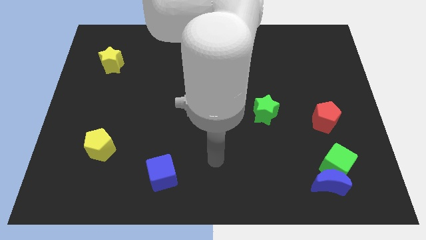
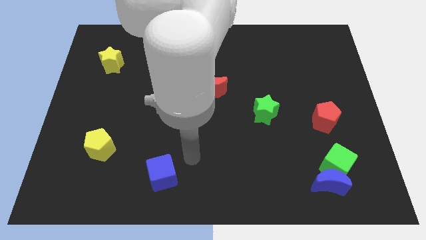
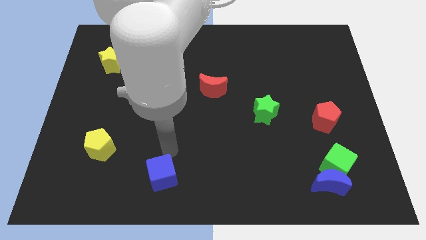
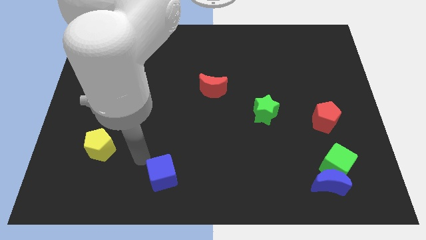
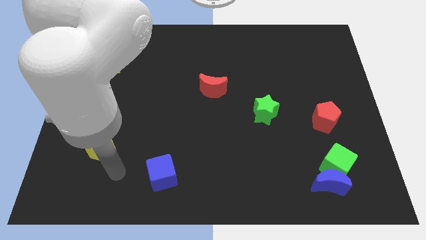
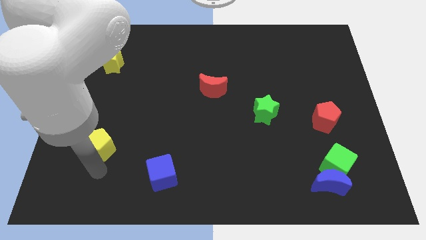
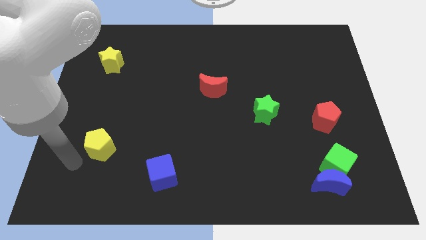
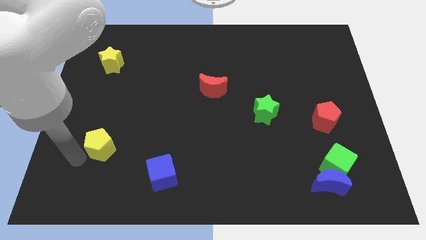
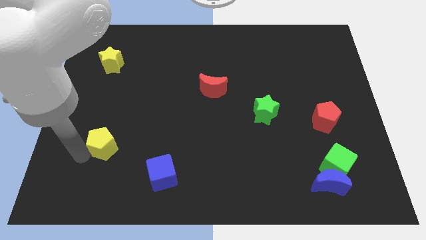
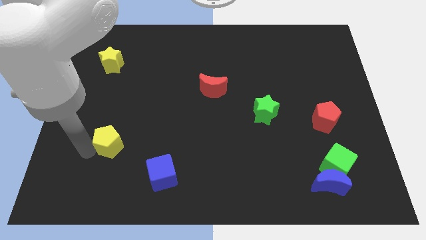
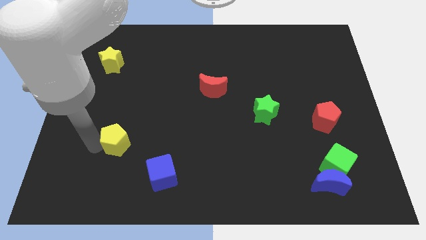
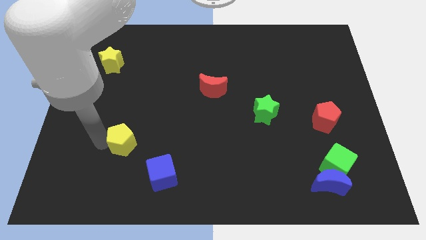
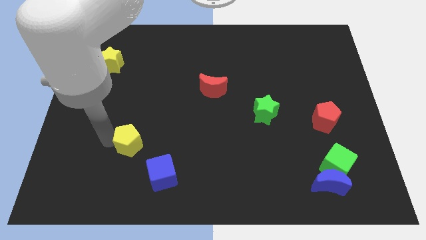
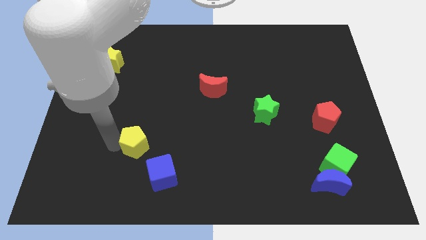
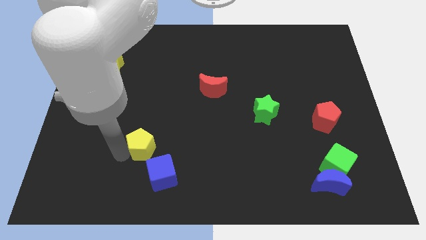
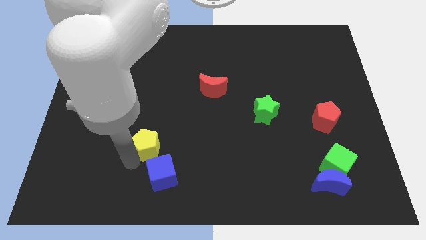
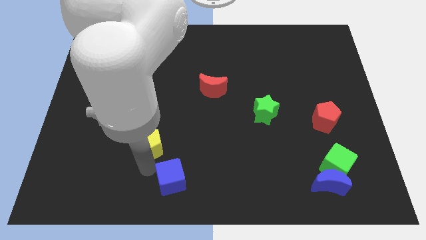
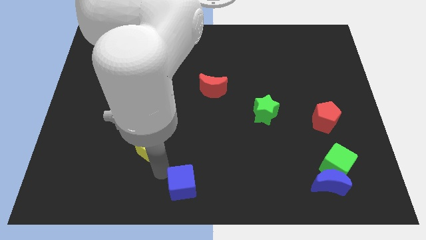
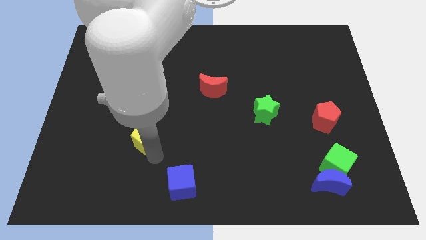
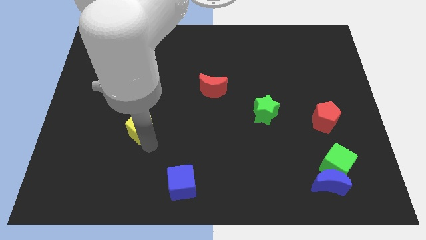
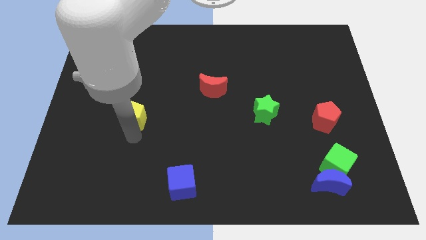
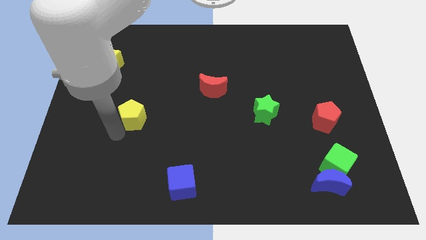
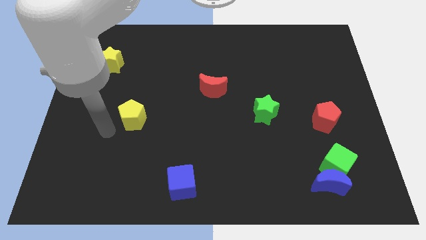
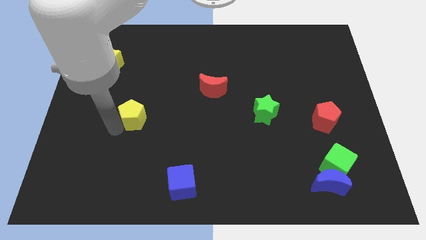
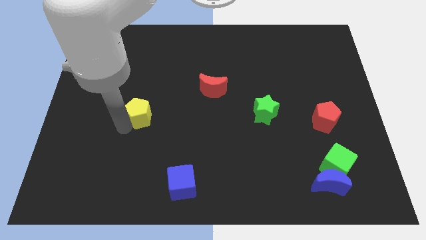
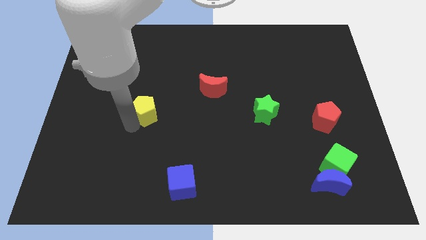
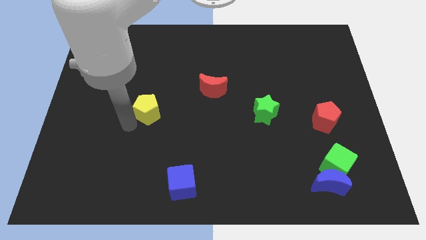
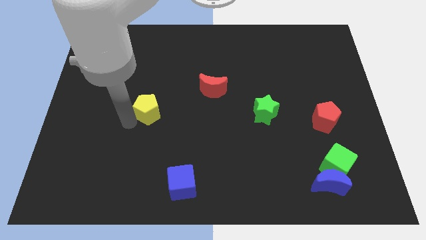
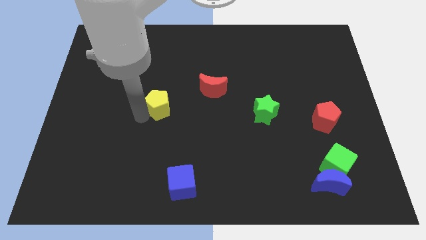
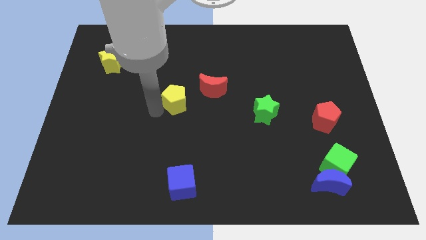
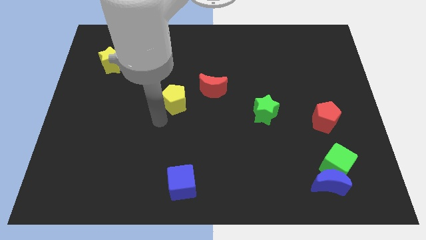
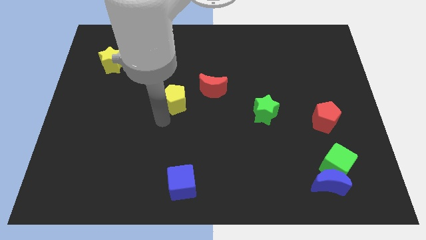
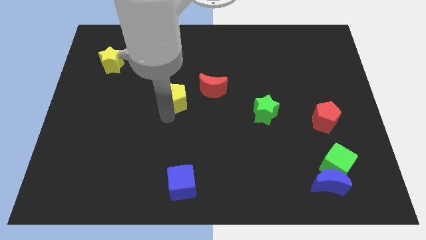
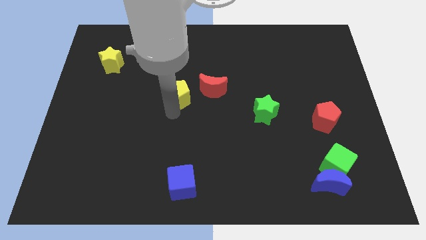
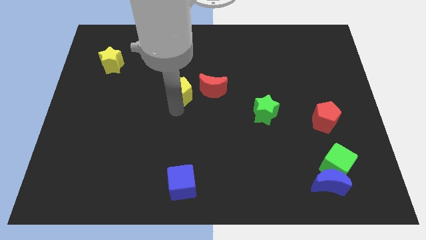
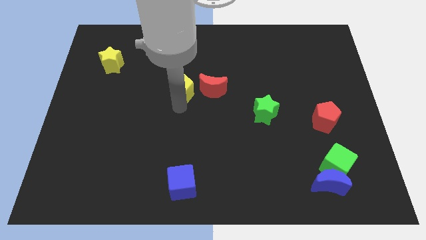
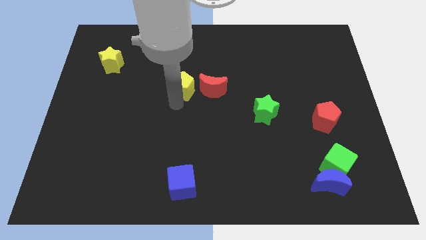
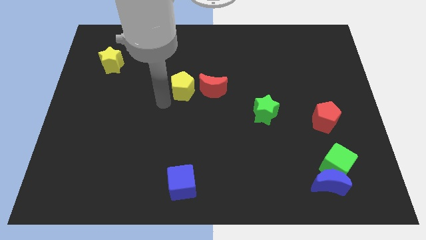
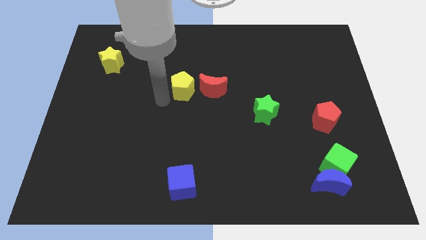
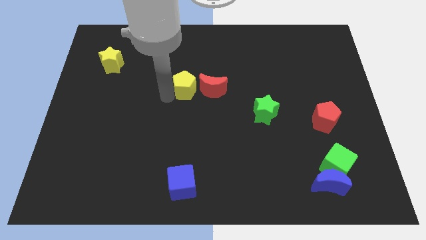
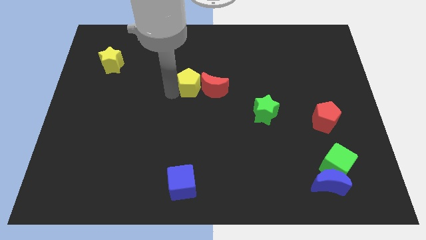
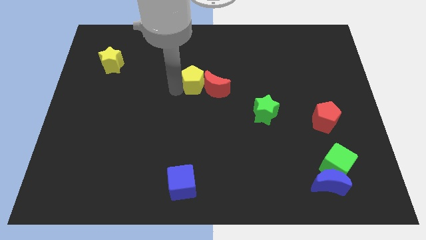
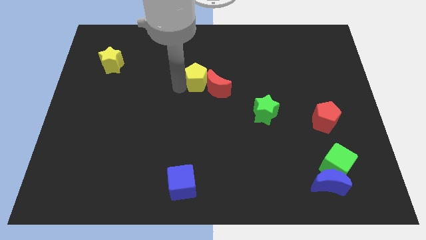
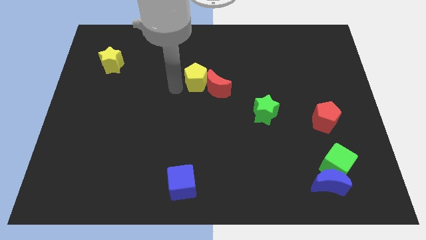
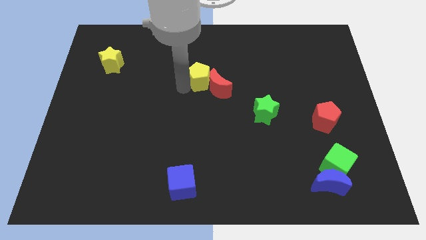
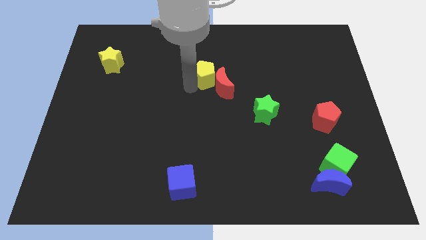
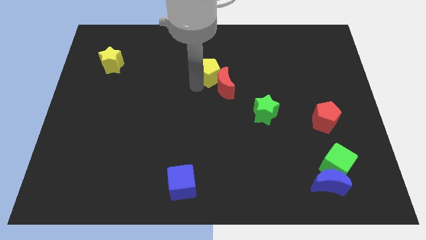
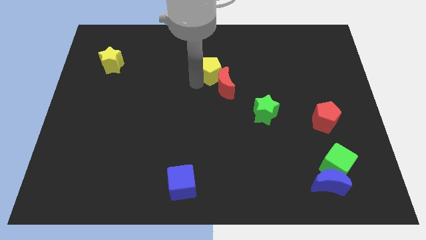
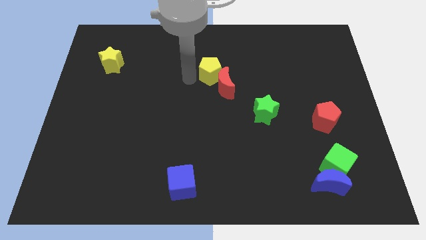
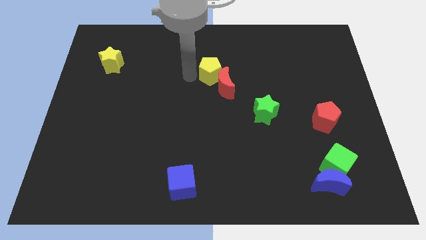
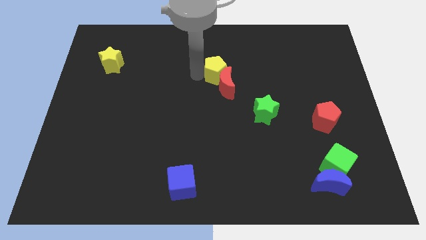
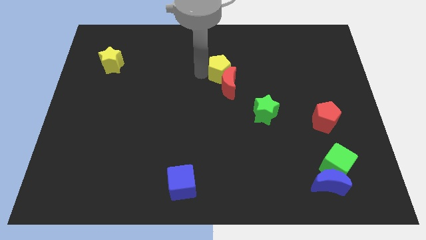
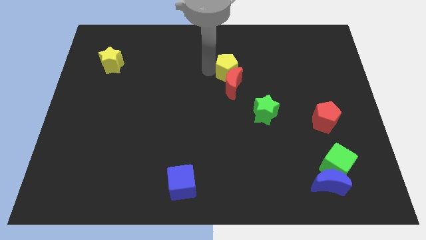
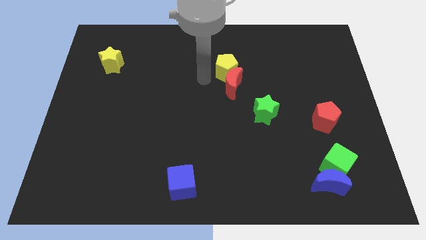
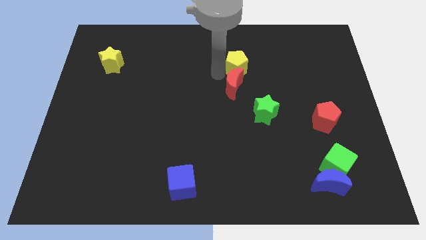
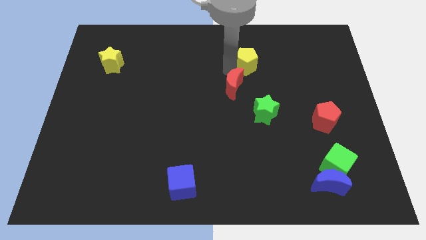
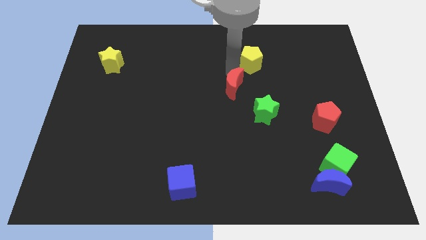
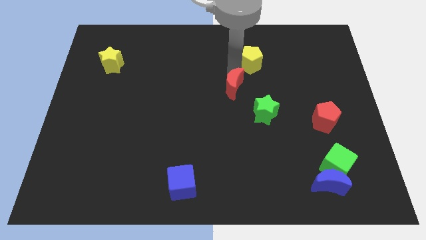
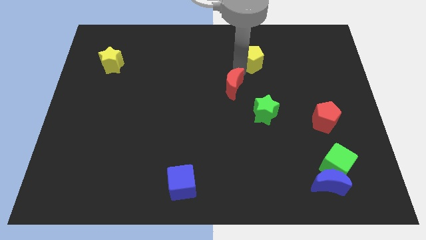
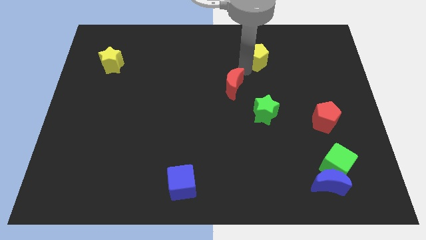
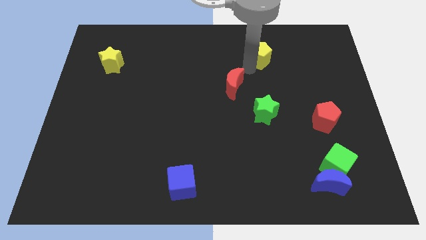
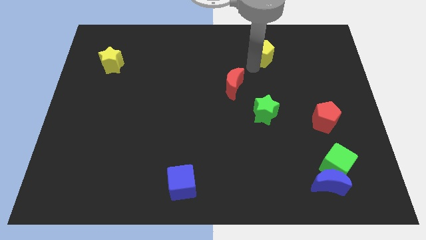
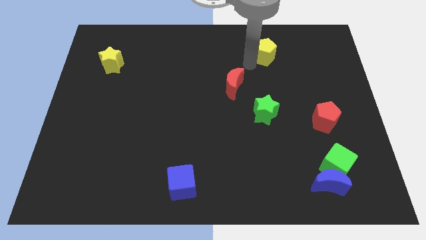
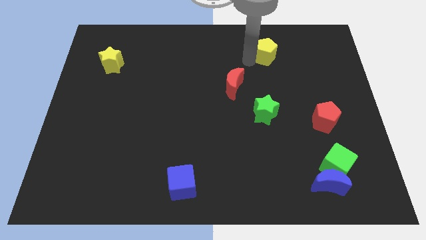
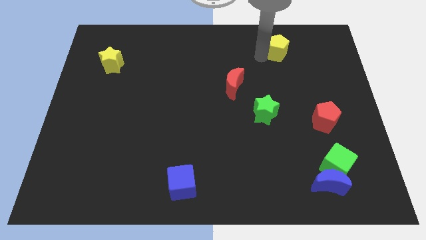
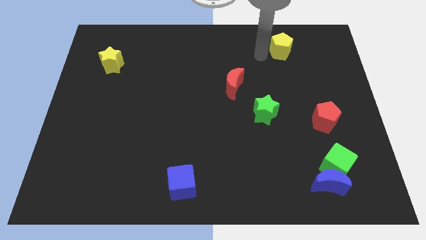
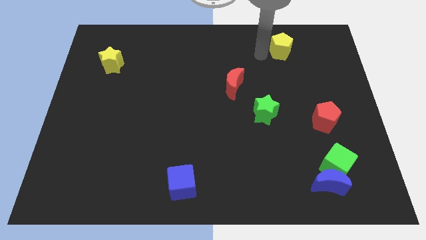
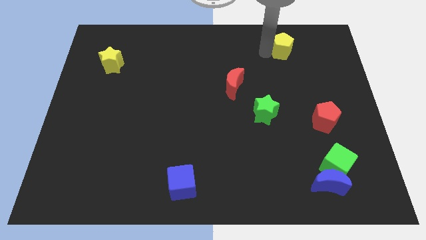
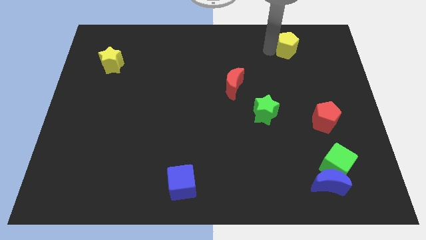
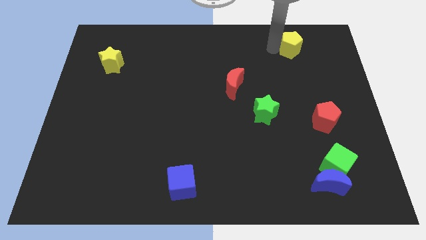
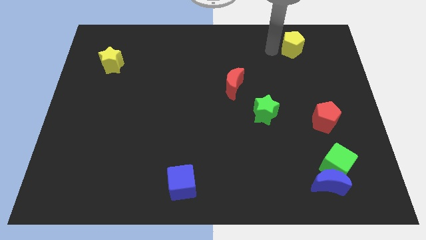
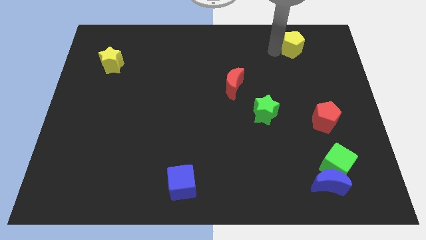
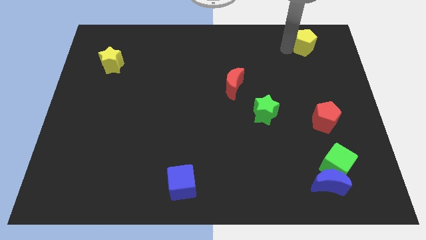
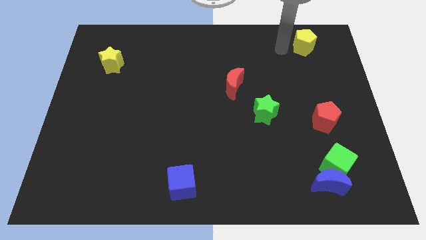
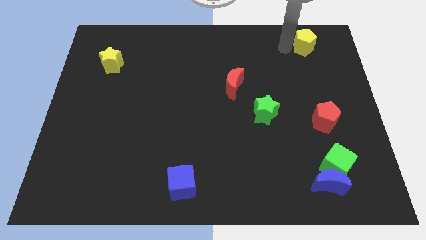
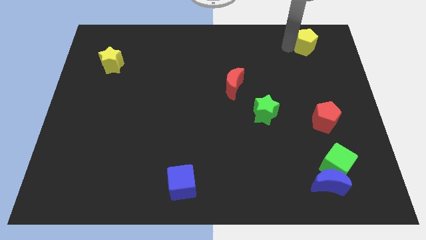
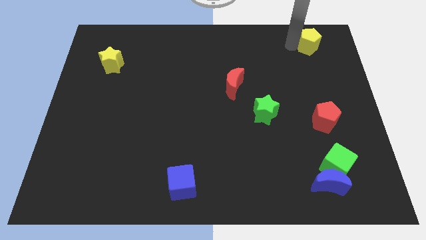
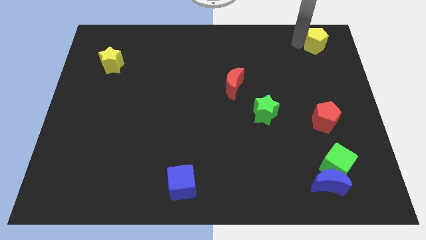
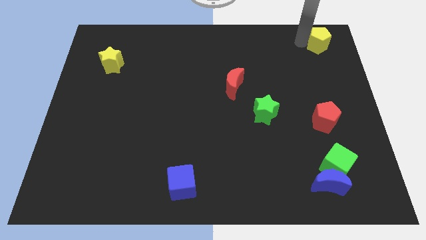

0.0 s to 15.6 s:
slide the yellow pentagon to the top right of the board
